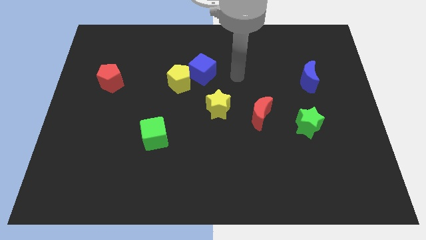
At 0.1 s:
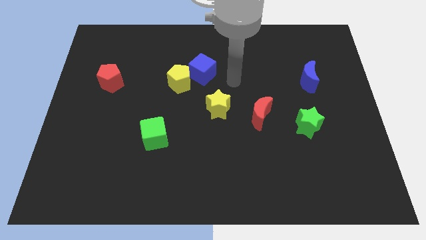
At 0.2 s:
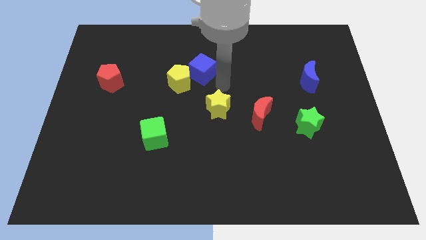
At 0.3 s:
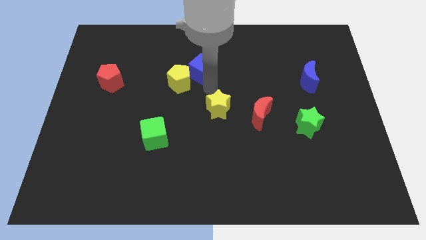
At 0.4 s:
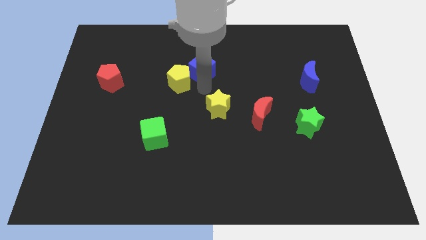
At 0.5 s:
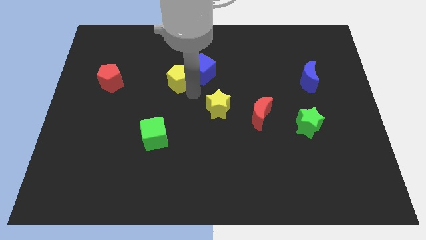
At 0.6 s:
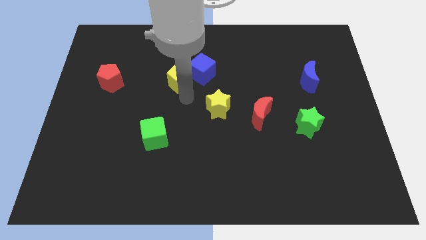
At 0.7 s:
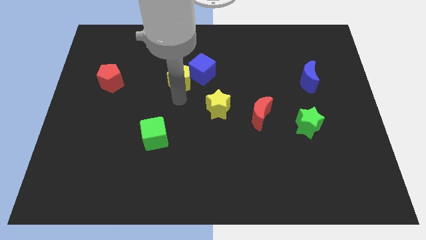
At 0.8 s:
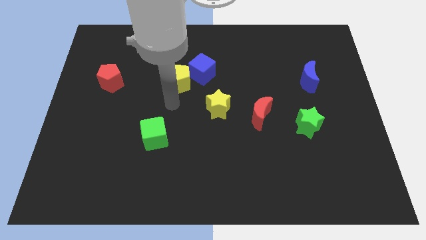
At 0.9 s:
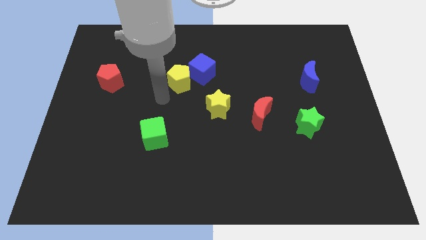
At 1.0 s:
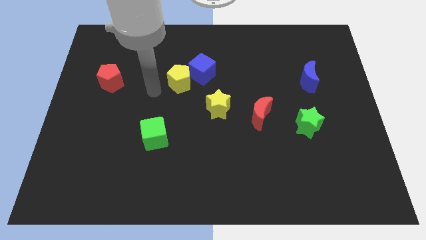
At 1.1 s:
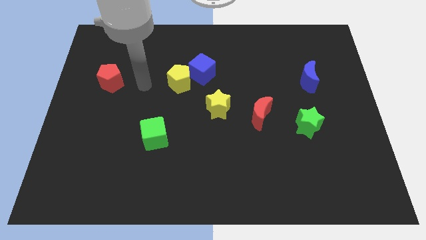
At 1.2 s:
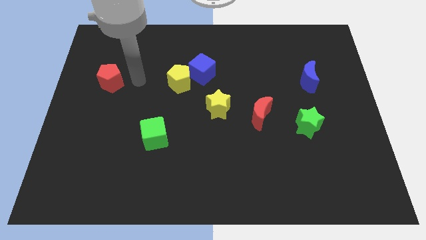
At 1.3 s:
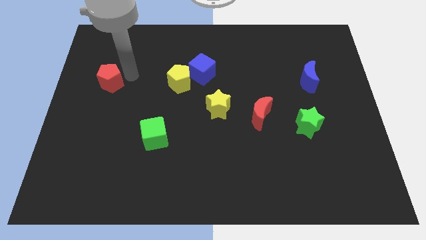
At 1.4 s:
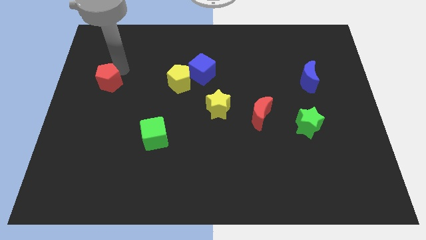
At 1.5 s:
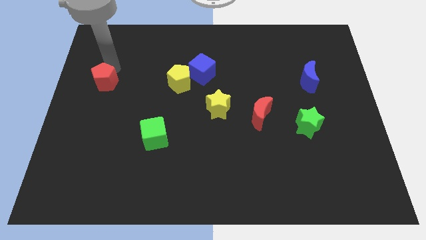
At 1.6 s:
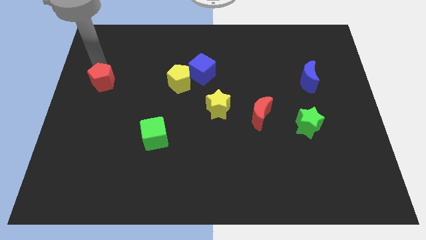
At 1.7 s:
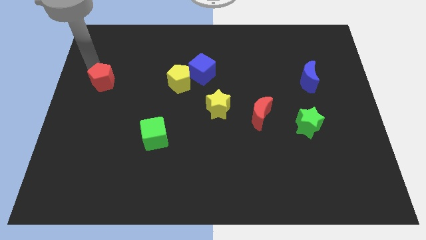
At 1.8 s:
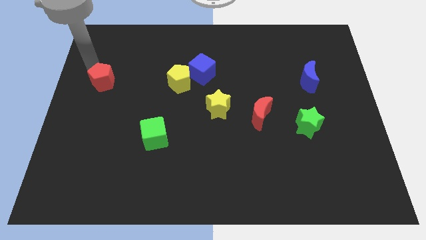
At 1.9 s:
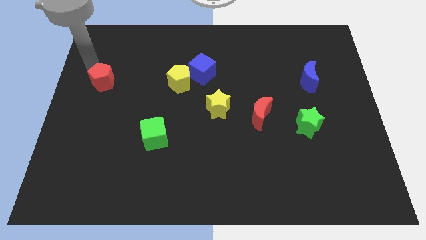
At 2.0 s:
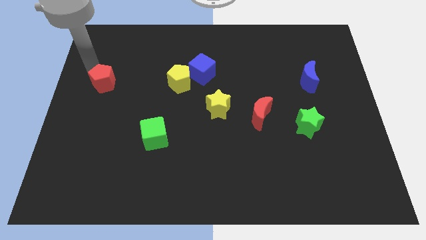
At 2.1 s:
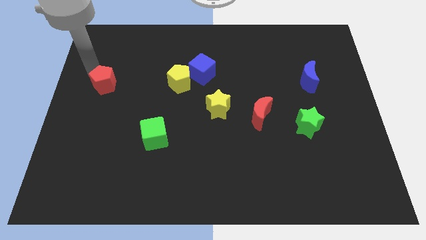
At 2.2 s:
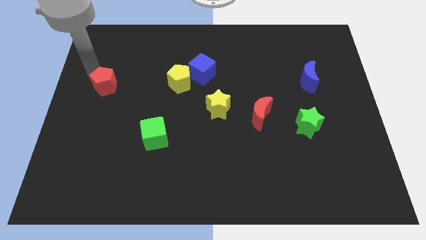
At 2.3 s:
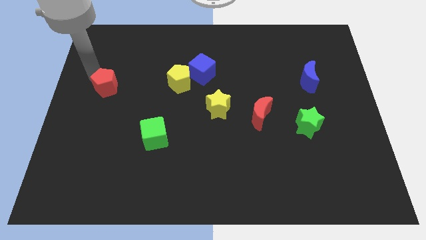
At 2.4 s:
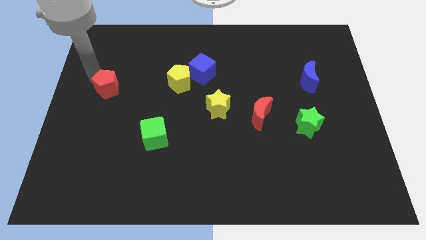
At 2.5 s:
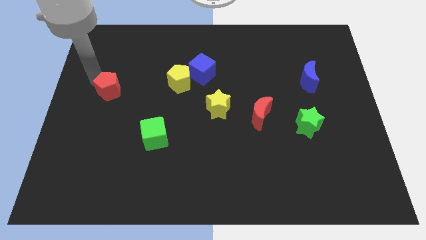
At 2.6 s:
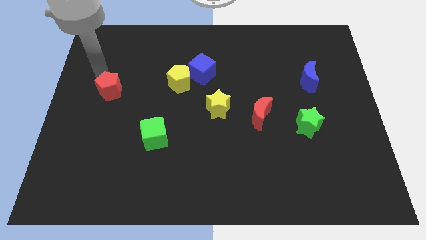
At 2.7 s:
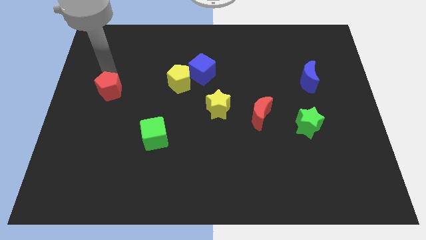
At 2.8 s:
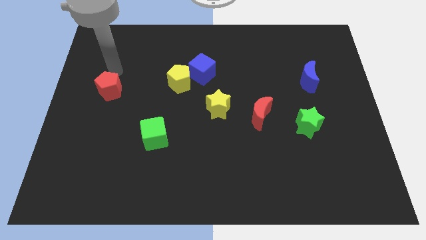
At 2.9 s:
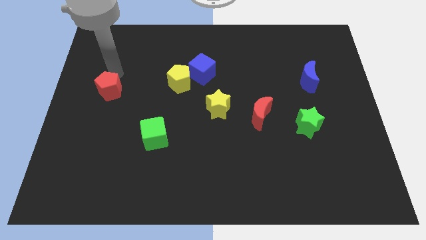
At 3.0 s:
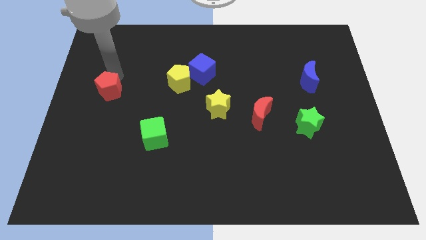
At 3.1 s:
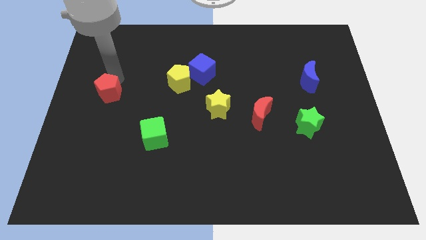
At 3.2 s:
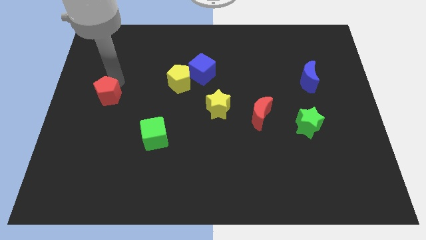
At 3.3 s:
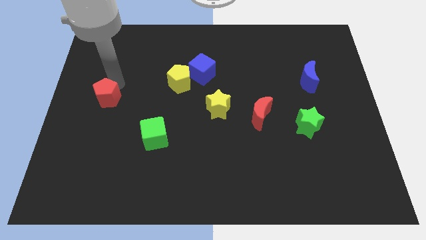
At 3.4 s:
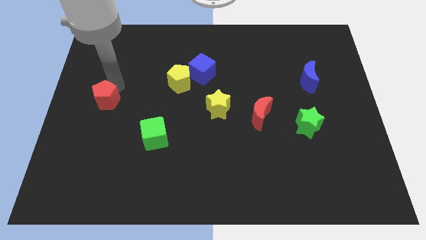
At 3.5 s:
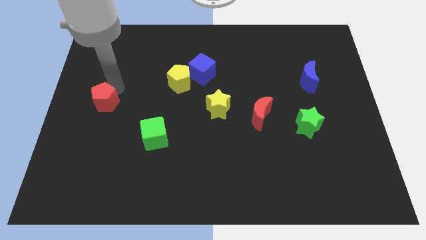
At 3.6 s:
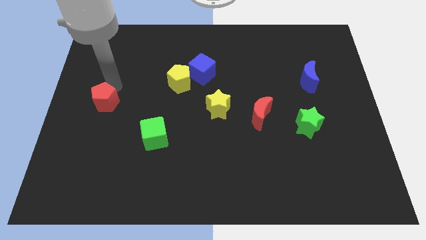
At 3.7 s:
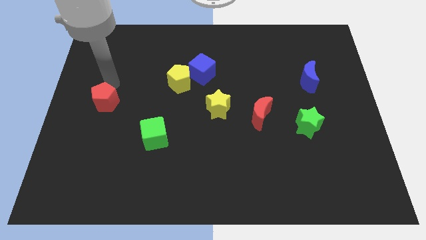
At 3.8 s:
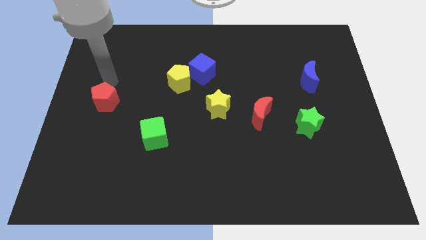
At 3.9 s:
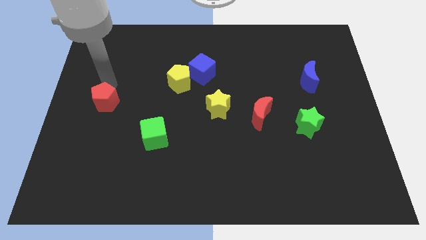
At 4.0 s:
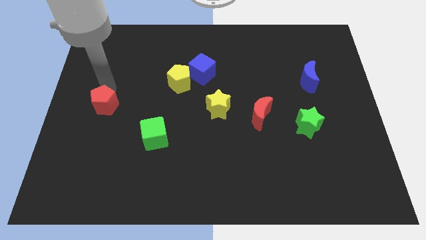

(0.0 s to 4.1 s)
push the red pentagon a bit downwards

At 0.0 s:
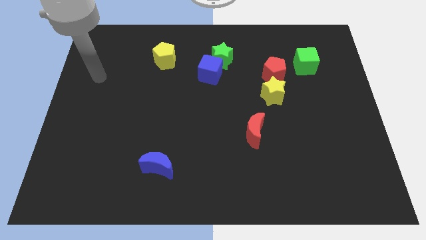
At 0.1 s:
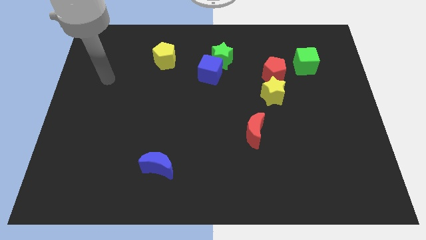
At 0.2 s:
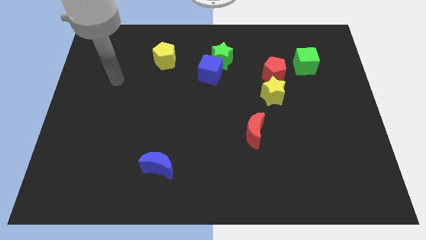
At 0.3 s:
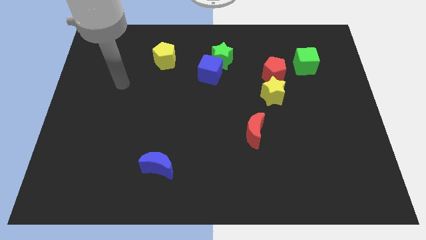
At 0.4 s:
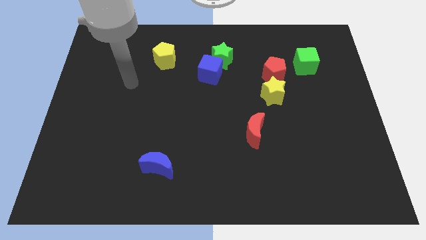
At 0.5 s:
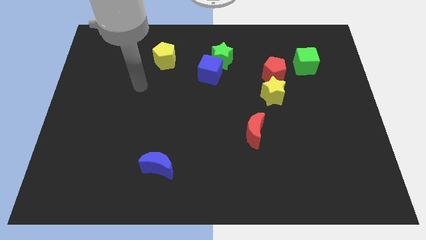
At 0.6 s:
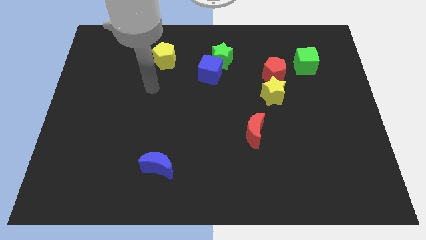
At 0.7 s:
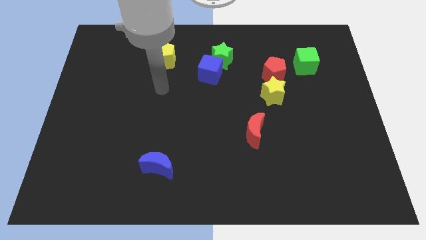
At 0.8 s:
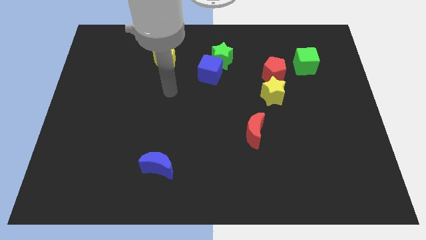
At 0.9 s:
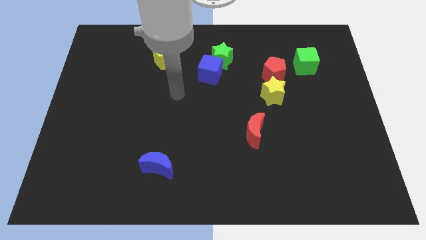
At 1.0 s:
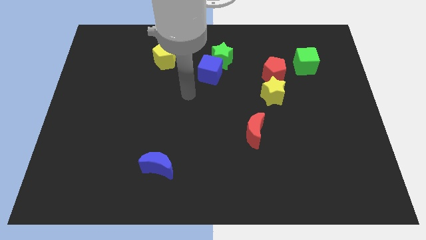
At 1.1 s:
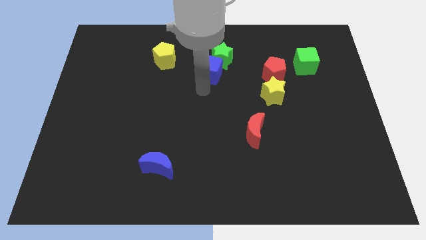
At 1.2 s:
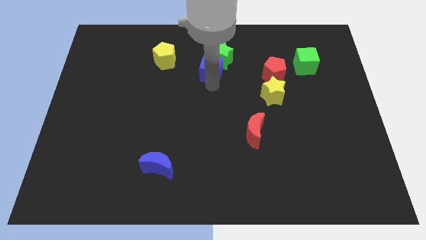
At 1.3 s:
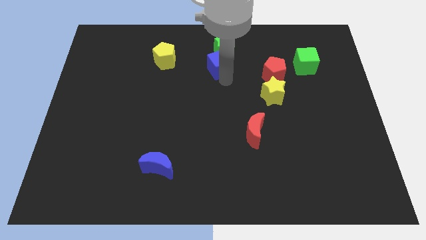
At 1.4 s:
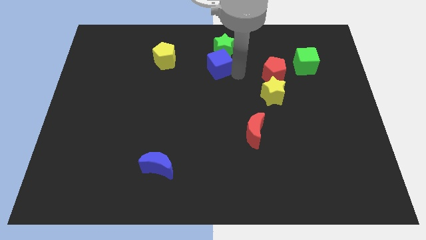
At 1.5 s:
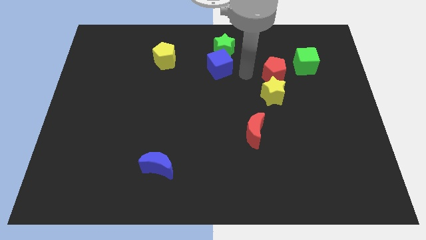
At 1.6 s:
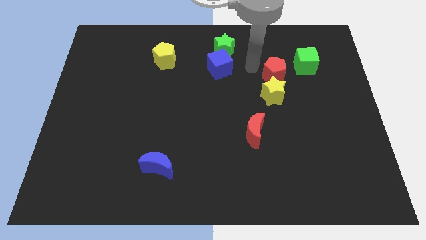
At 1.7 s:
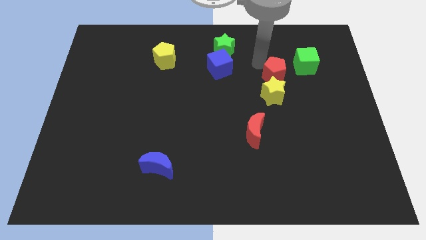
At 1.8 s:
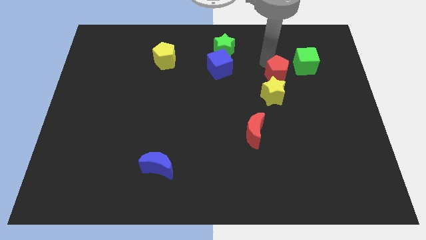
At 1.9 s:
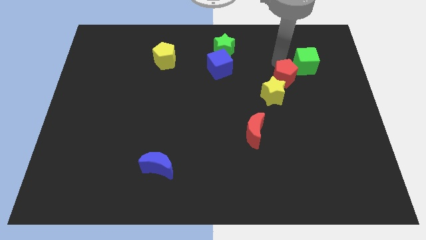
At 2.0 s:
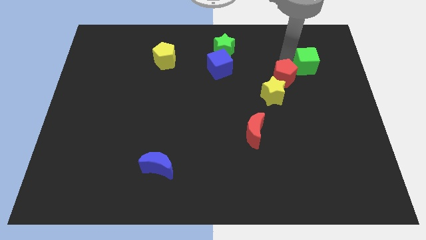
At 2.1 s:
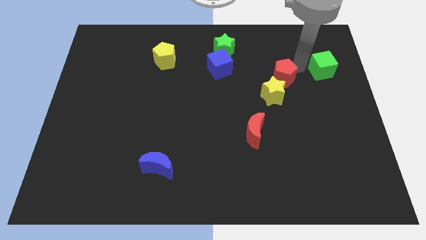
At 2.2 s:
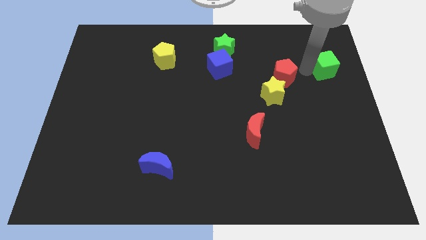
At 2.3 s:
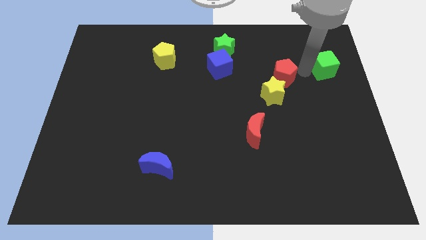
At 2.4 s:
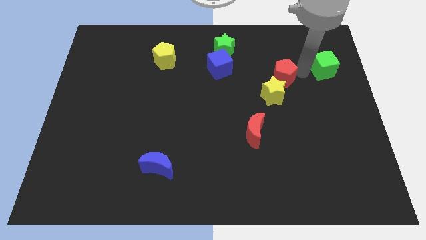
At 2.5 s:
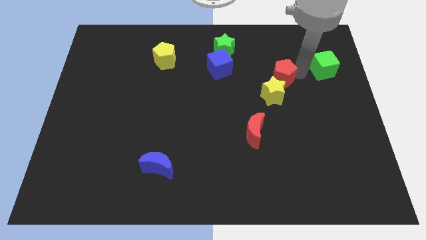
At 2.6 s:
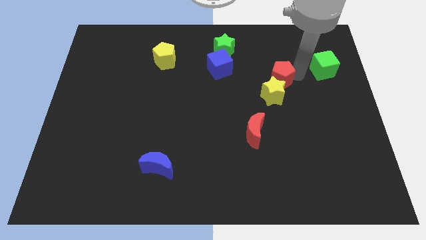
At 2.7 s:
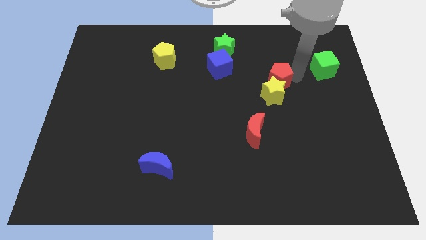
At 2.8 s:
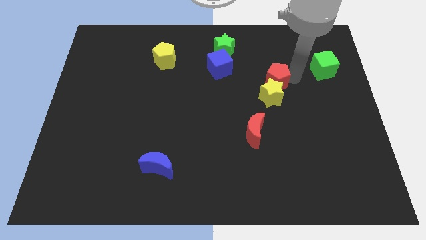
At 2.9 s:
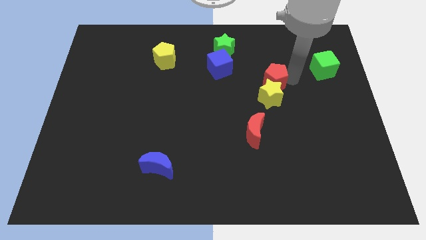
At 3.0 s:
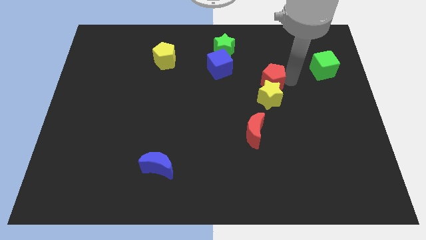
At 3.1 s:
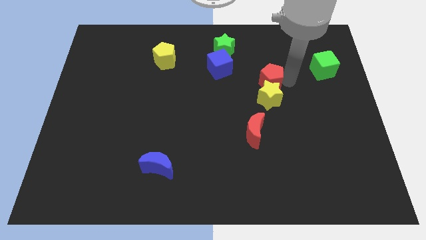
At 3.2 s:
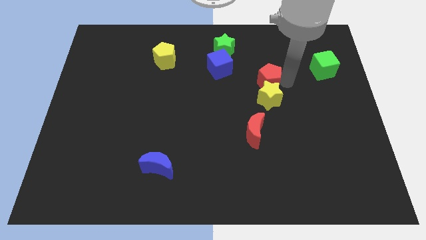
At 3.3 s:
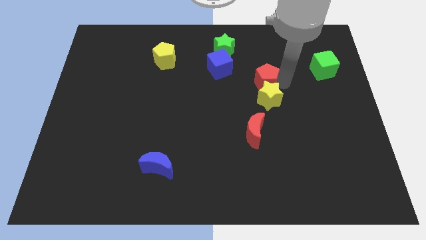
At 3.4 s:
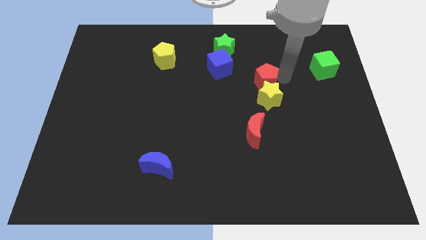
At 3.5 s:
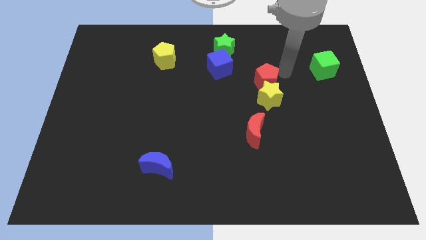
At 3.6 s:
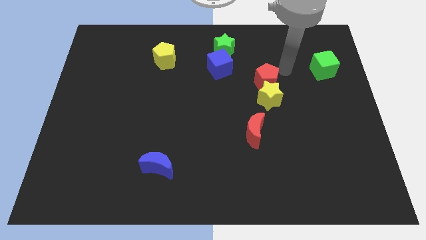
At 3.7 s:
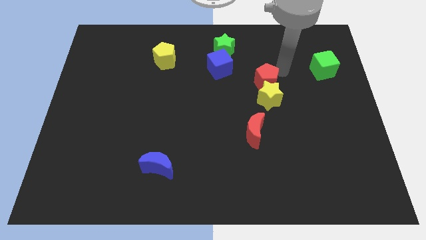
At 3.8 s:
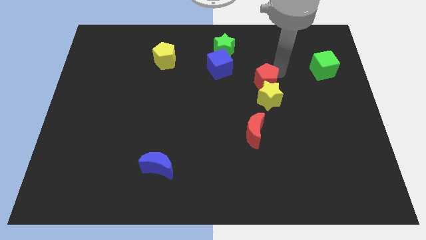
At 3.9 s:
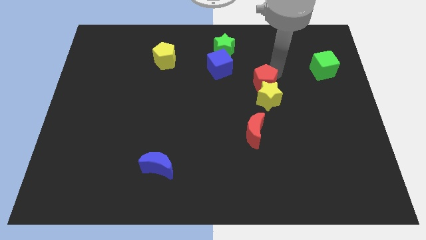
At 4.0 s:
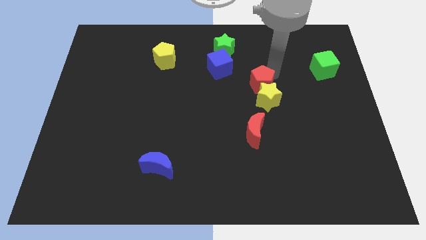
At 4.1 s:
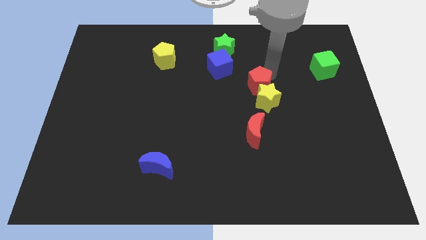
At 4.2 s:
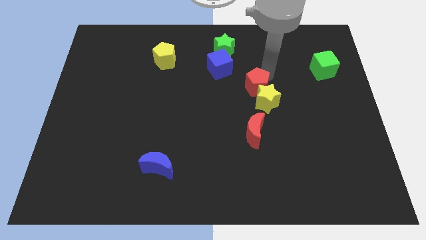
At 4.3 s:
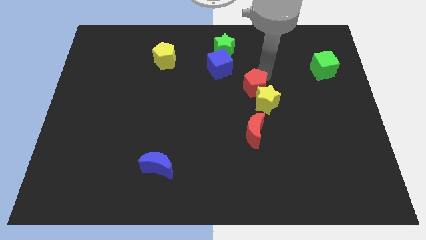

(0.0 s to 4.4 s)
push the red pentagon a bit downwards and to the left diagonally
